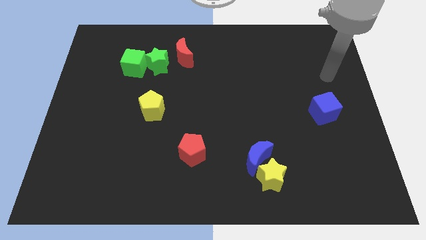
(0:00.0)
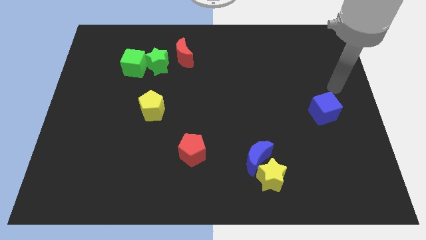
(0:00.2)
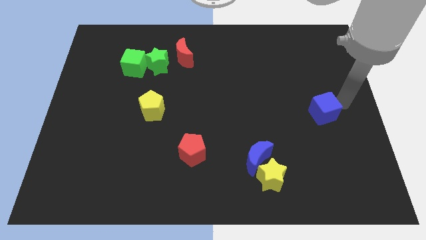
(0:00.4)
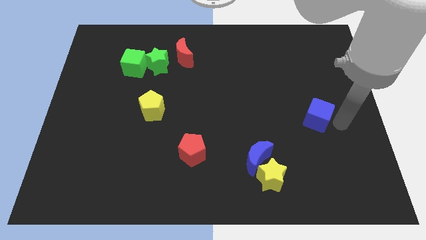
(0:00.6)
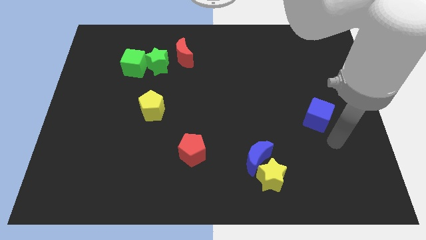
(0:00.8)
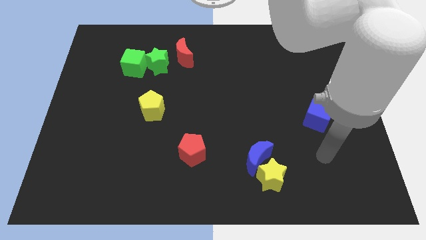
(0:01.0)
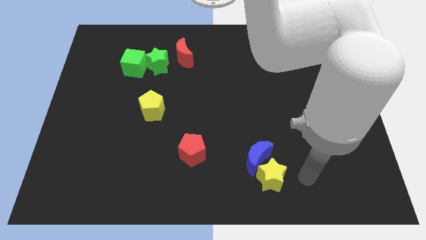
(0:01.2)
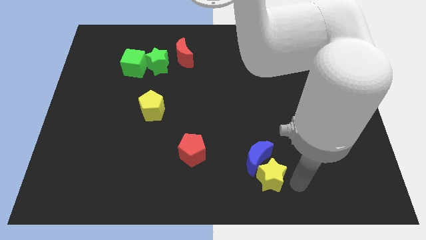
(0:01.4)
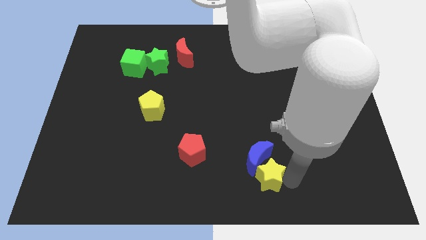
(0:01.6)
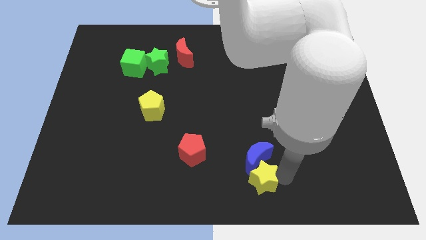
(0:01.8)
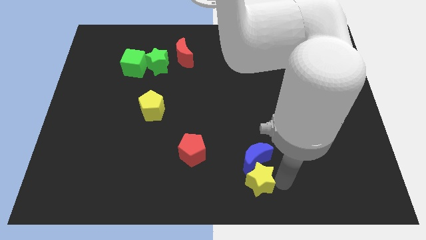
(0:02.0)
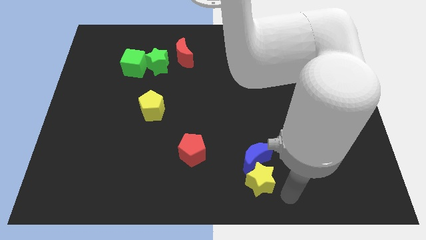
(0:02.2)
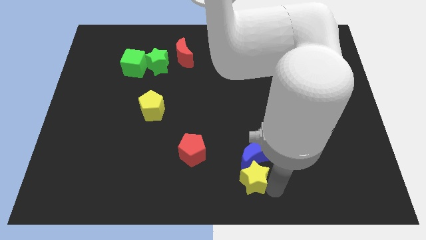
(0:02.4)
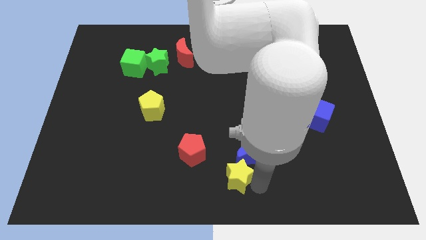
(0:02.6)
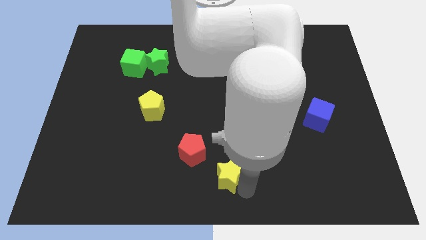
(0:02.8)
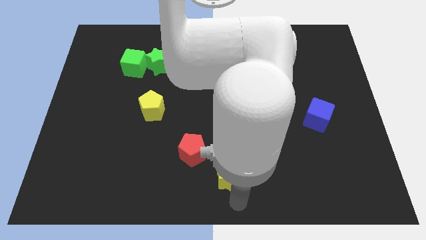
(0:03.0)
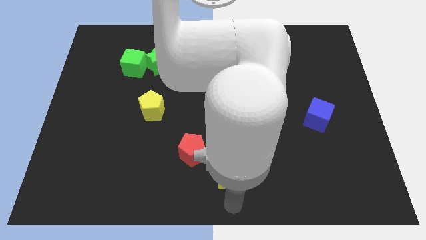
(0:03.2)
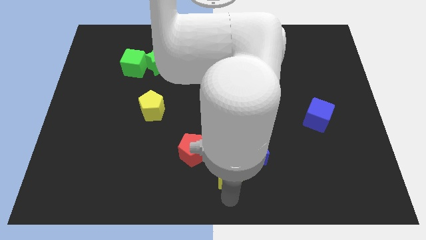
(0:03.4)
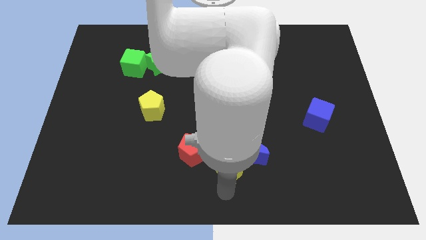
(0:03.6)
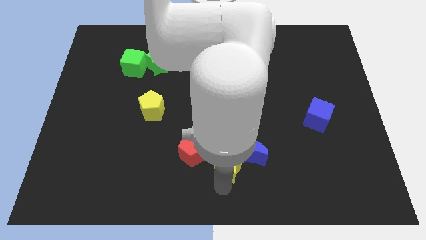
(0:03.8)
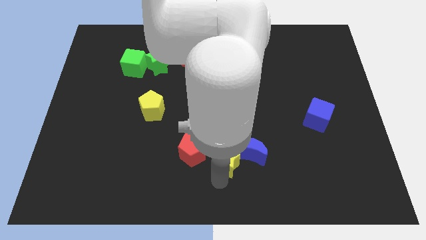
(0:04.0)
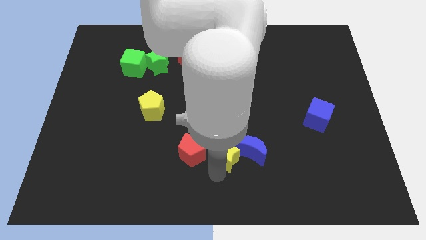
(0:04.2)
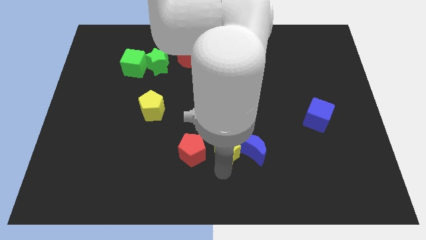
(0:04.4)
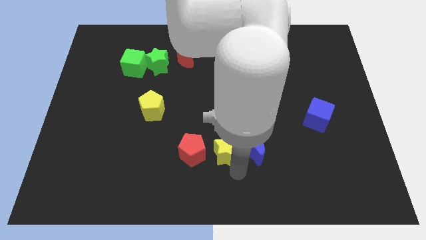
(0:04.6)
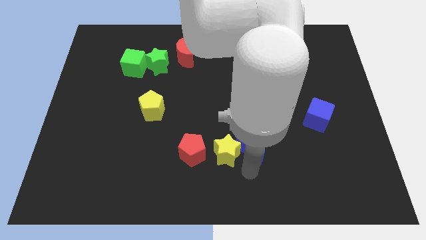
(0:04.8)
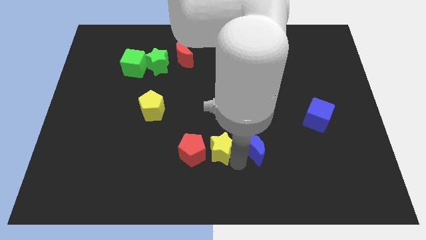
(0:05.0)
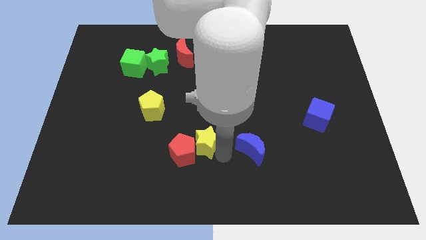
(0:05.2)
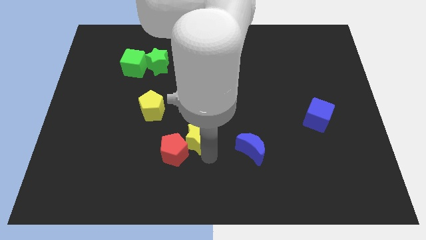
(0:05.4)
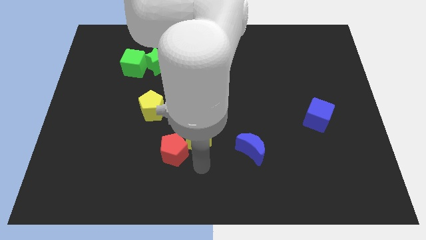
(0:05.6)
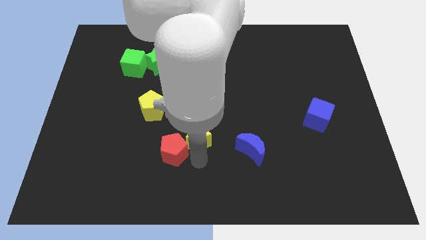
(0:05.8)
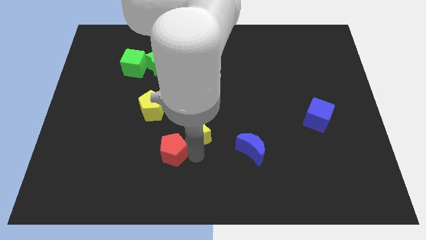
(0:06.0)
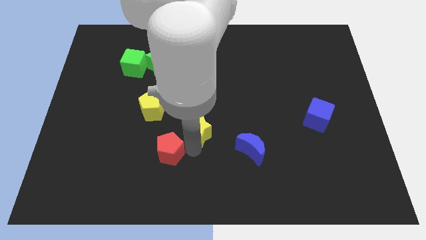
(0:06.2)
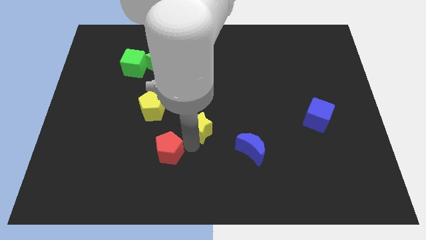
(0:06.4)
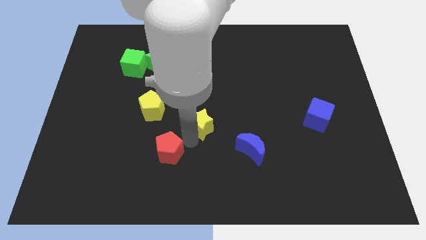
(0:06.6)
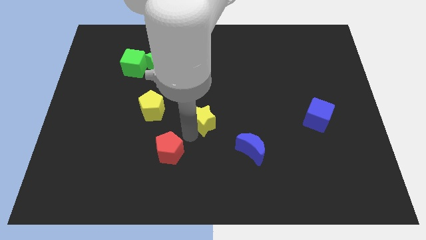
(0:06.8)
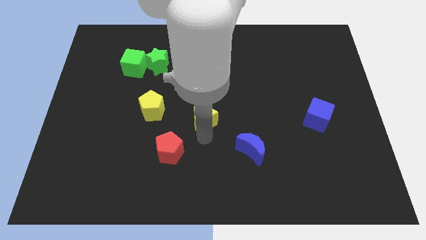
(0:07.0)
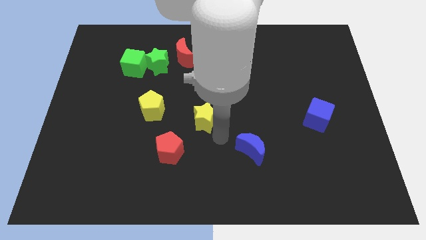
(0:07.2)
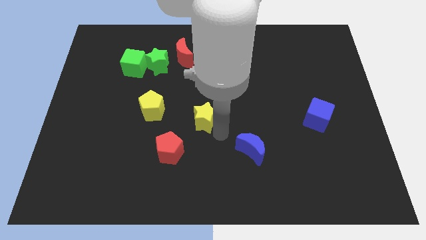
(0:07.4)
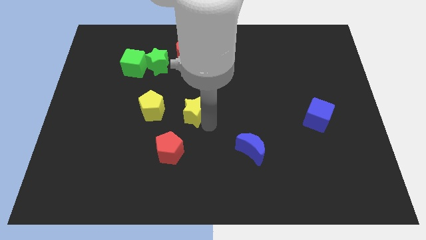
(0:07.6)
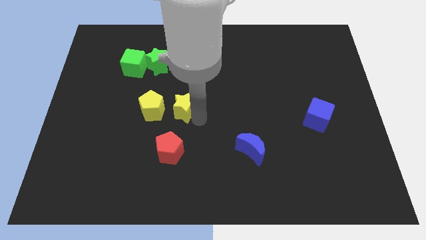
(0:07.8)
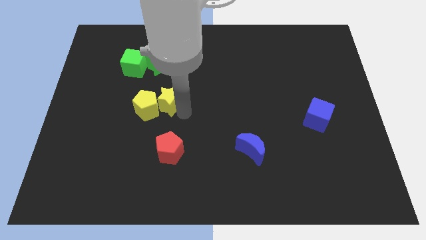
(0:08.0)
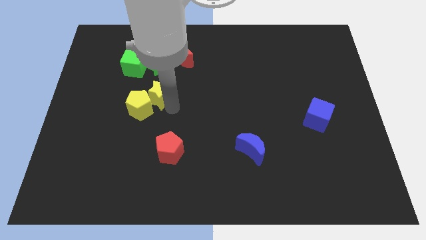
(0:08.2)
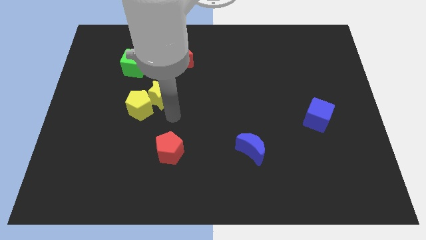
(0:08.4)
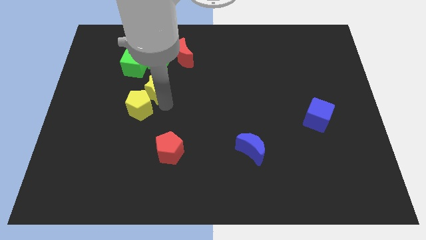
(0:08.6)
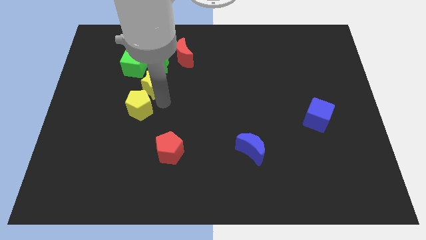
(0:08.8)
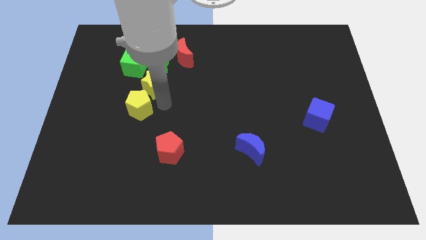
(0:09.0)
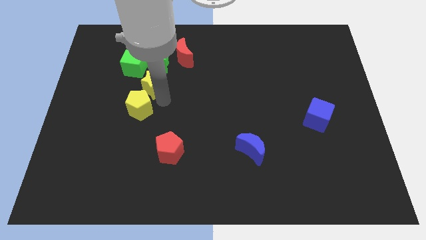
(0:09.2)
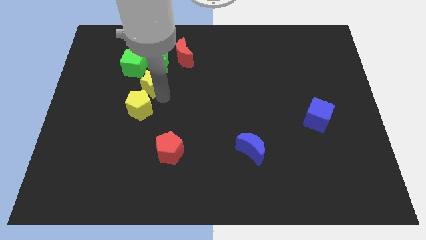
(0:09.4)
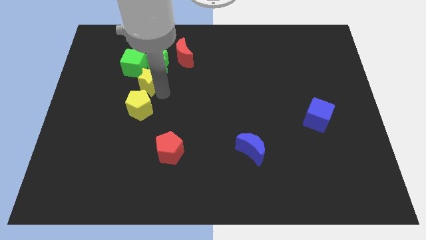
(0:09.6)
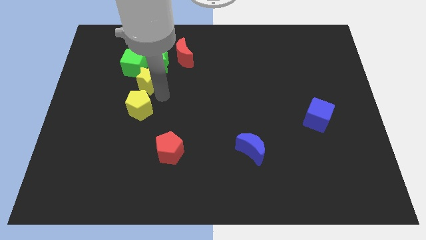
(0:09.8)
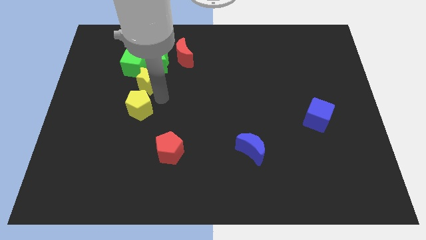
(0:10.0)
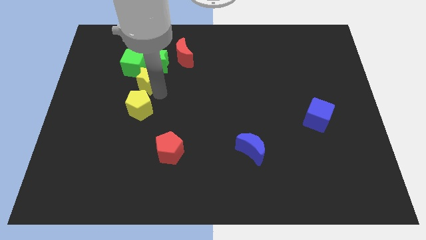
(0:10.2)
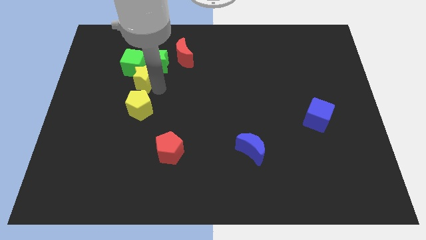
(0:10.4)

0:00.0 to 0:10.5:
put the yellow star close to the green cube

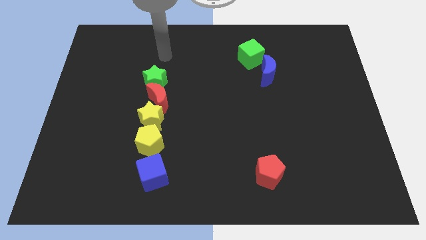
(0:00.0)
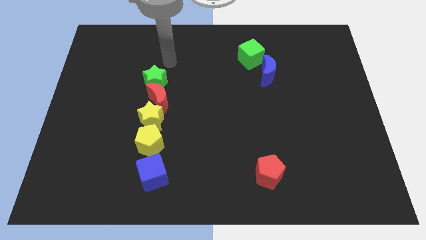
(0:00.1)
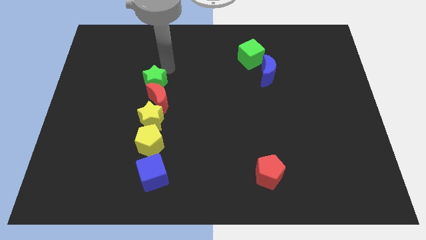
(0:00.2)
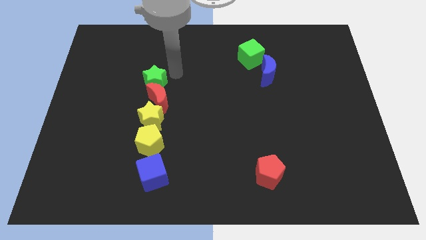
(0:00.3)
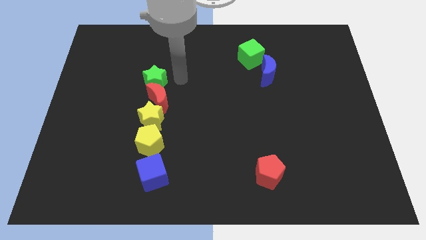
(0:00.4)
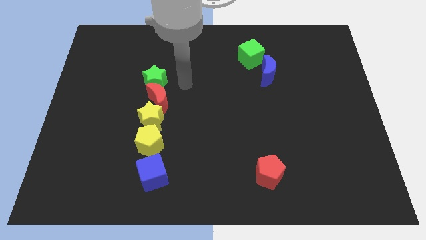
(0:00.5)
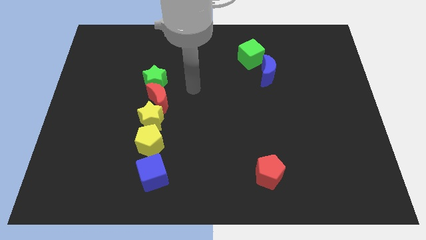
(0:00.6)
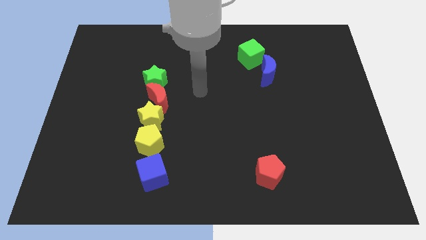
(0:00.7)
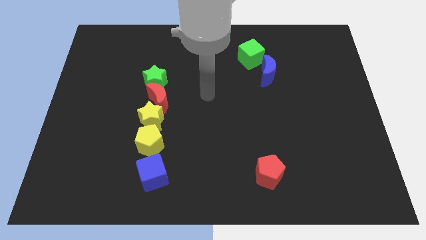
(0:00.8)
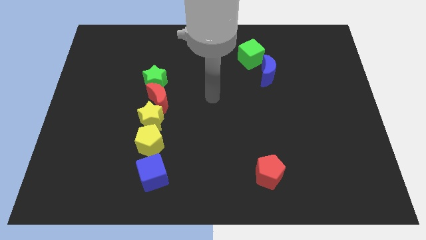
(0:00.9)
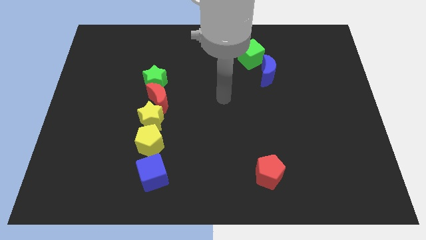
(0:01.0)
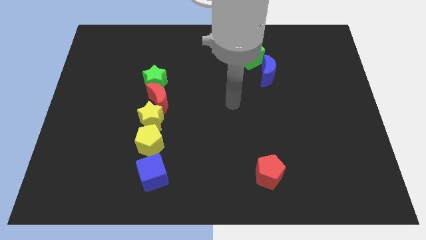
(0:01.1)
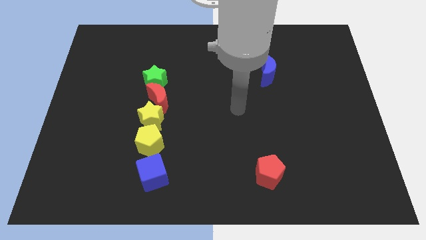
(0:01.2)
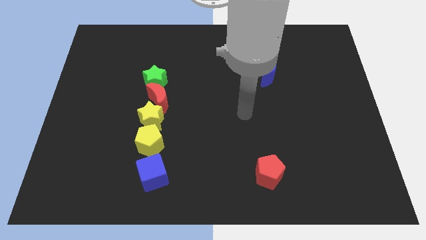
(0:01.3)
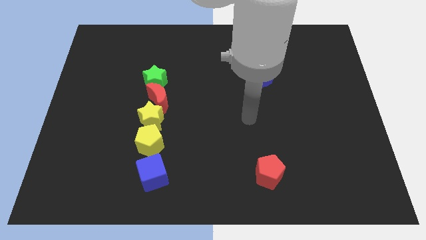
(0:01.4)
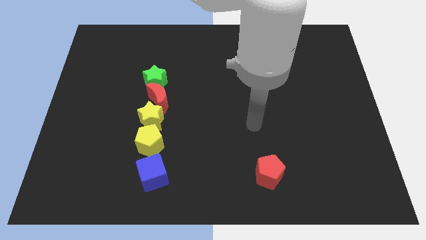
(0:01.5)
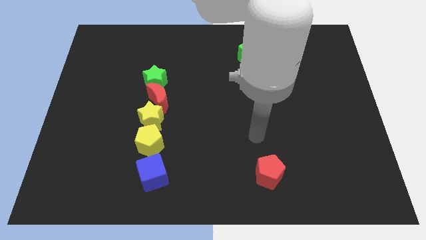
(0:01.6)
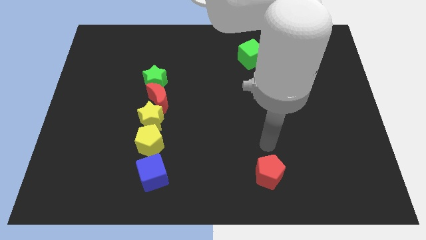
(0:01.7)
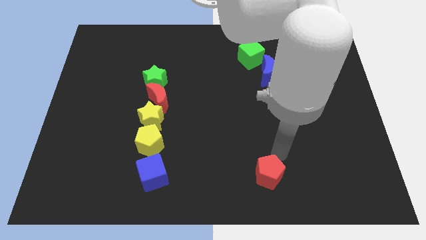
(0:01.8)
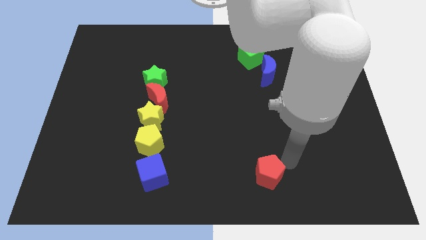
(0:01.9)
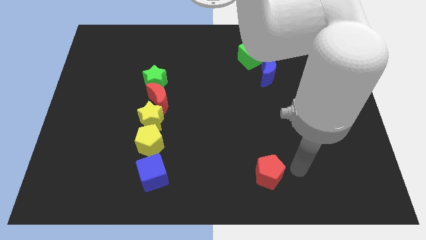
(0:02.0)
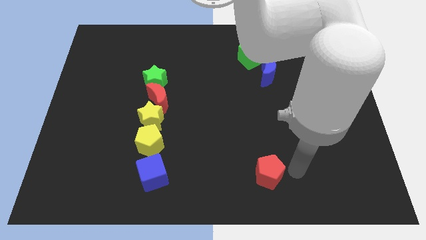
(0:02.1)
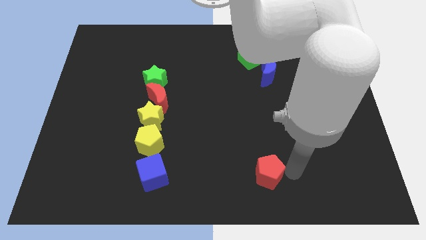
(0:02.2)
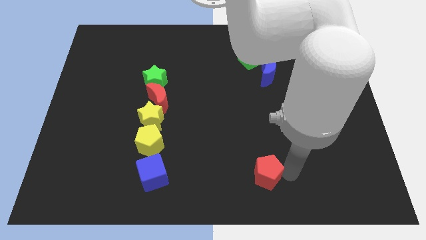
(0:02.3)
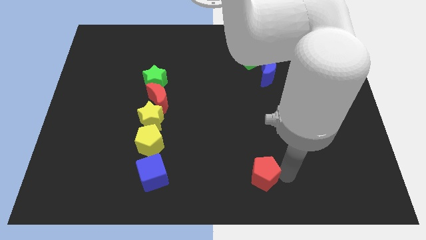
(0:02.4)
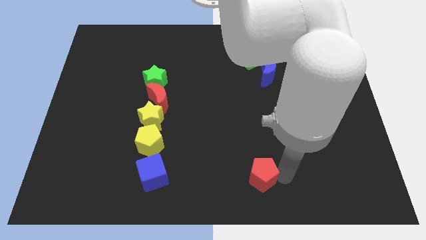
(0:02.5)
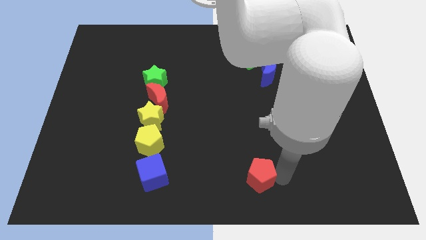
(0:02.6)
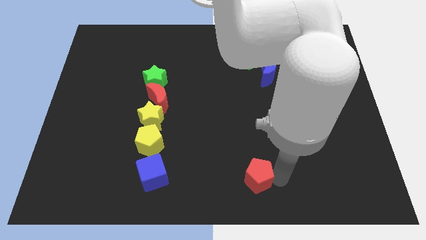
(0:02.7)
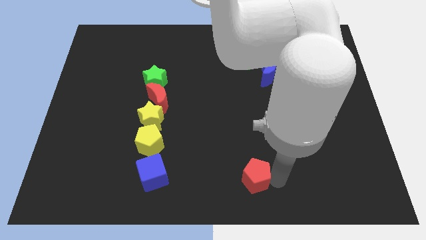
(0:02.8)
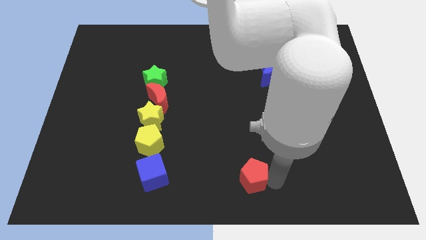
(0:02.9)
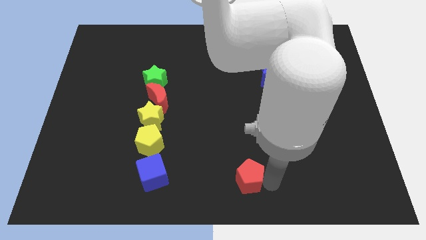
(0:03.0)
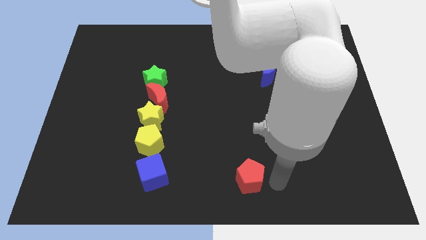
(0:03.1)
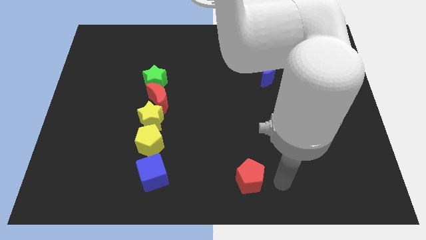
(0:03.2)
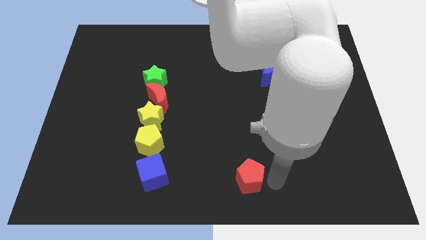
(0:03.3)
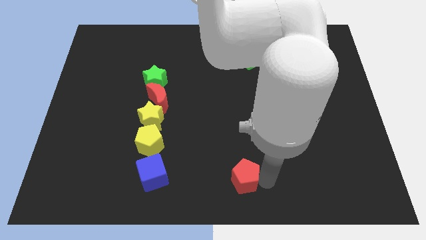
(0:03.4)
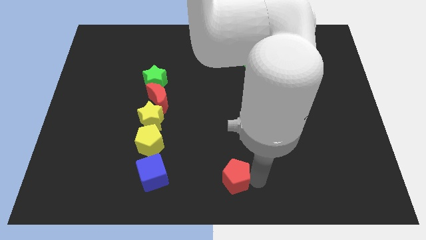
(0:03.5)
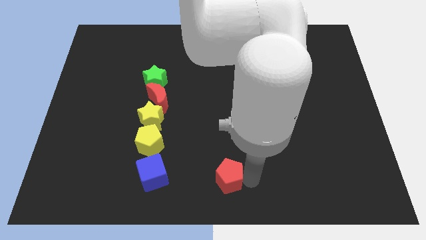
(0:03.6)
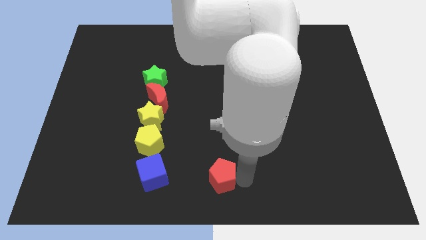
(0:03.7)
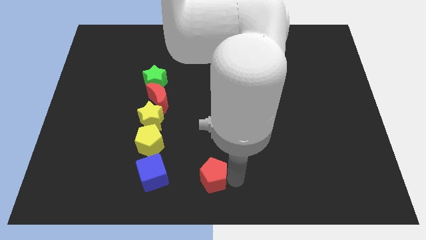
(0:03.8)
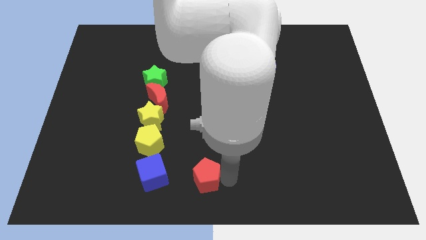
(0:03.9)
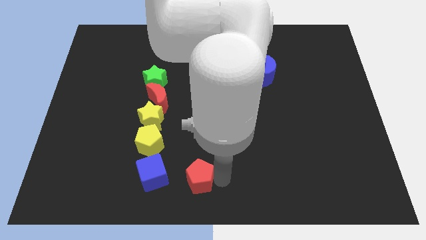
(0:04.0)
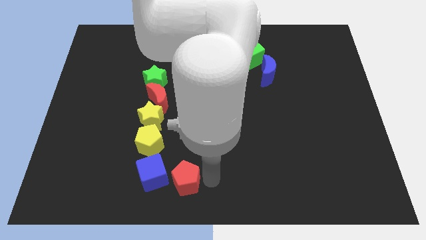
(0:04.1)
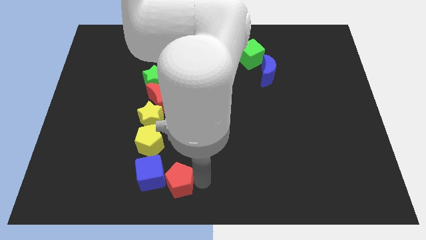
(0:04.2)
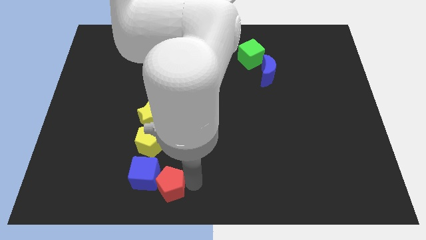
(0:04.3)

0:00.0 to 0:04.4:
push the red pentagon next to the blue cube
